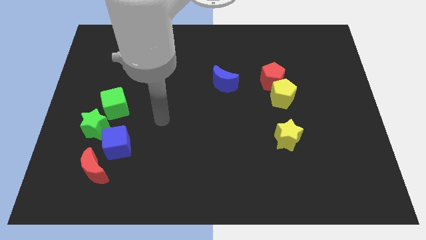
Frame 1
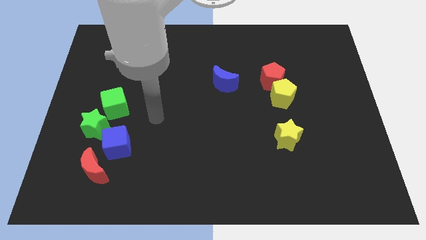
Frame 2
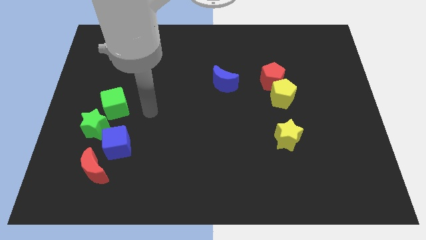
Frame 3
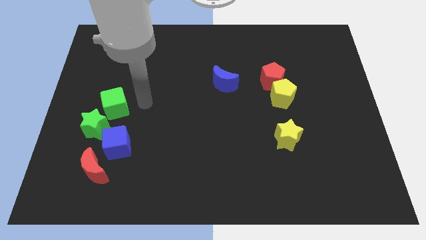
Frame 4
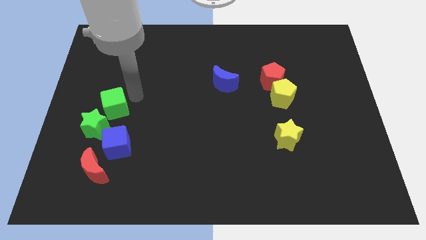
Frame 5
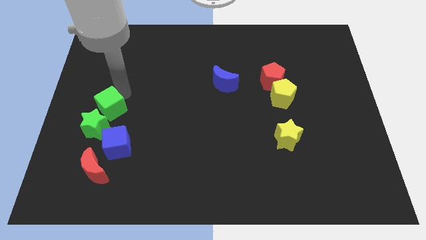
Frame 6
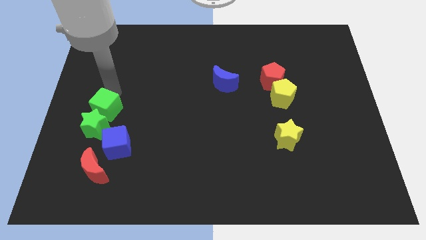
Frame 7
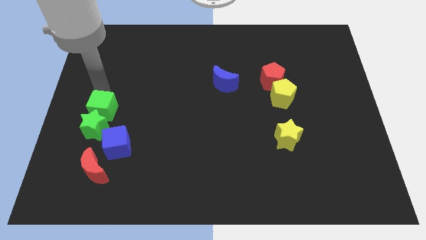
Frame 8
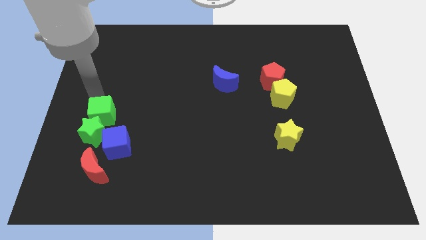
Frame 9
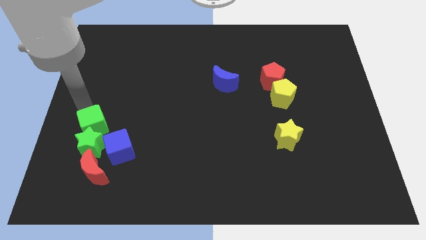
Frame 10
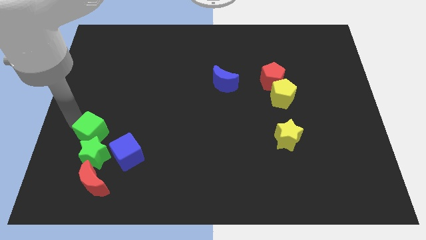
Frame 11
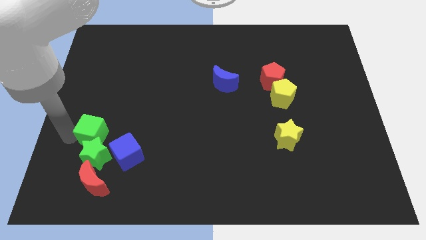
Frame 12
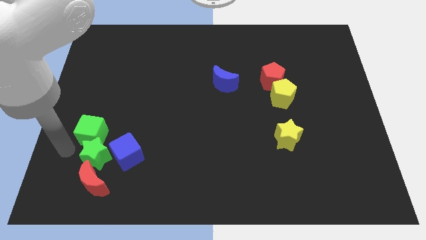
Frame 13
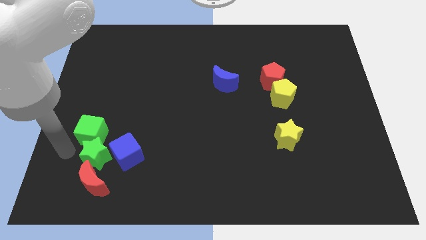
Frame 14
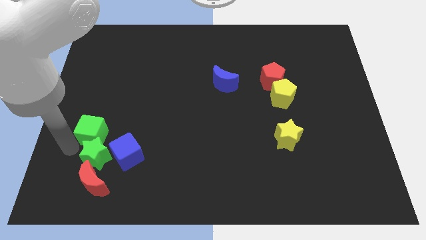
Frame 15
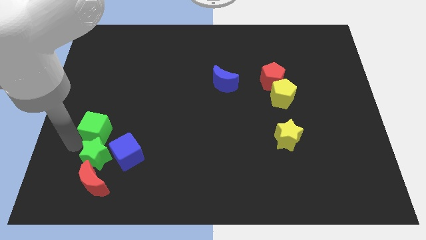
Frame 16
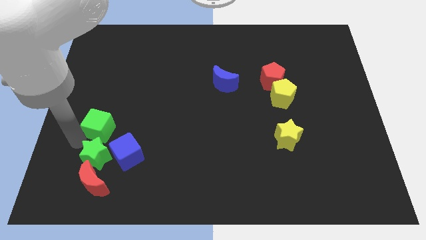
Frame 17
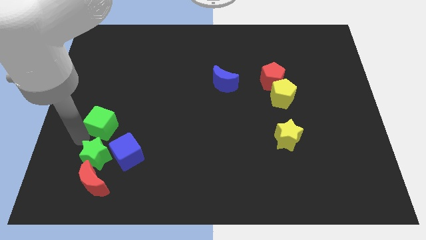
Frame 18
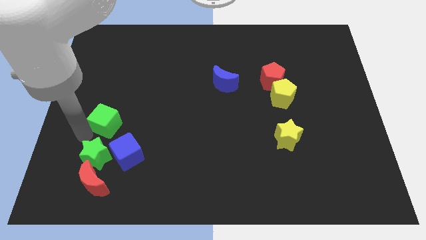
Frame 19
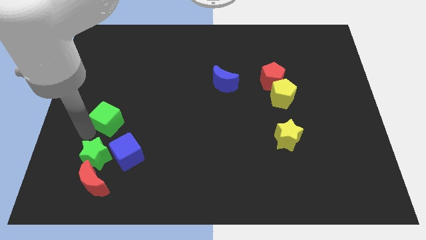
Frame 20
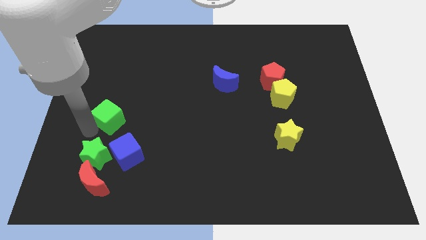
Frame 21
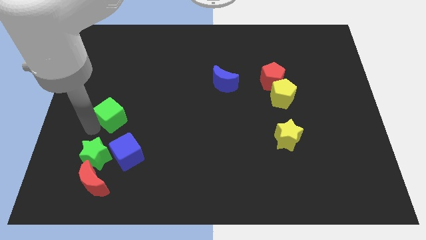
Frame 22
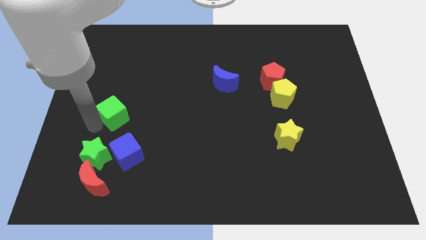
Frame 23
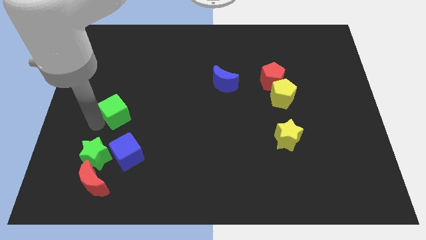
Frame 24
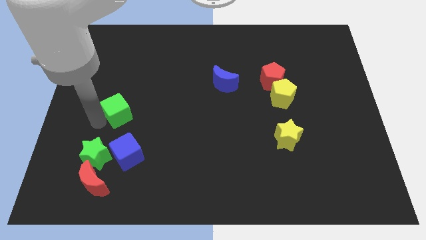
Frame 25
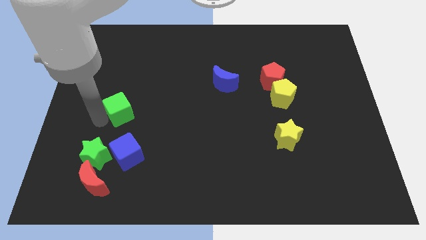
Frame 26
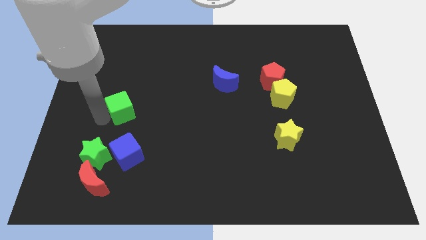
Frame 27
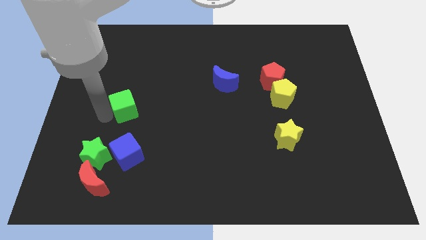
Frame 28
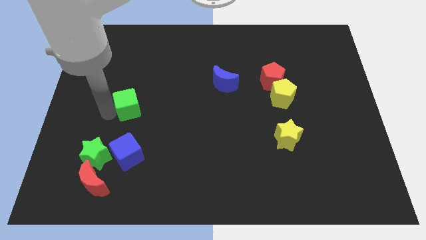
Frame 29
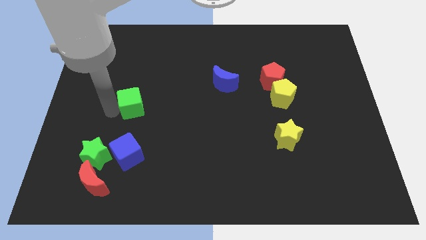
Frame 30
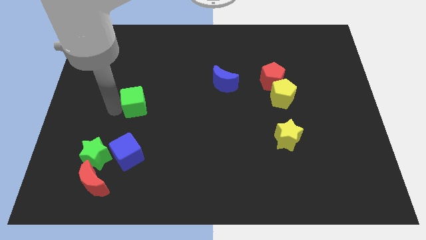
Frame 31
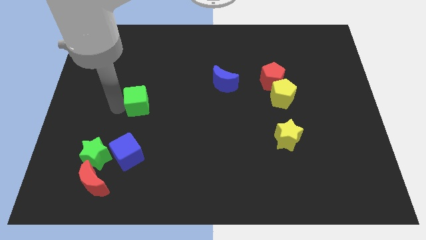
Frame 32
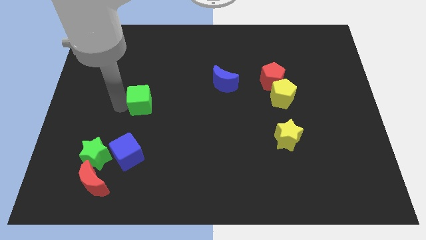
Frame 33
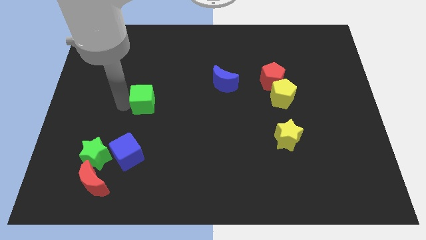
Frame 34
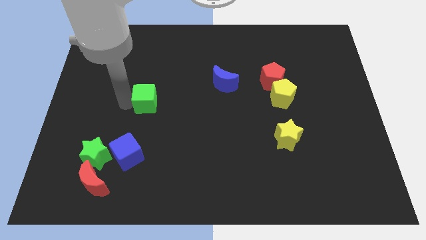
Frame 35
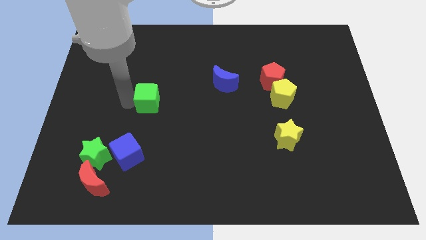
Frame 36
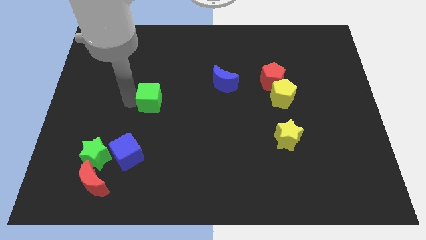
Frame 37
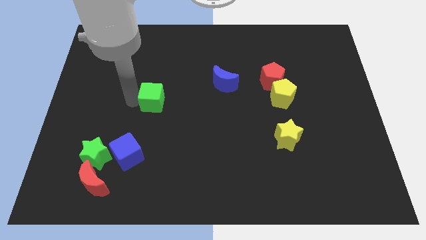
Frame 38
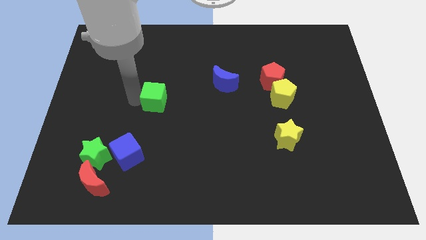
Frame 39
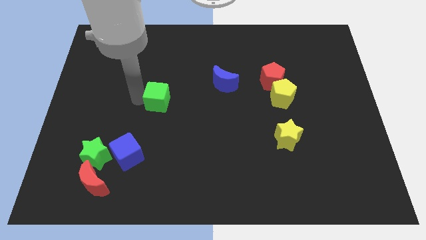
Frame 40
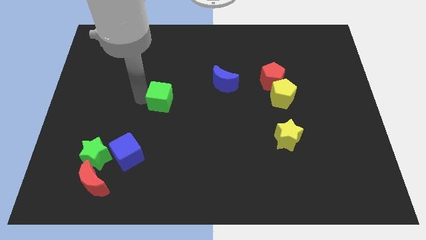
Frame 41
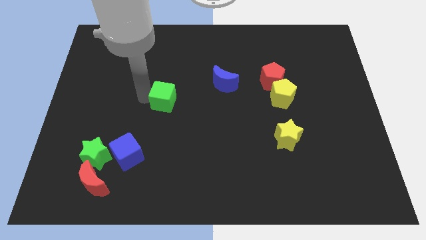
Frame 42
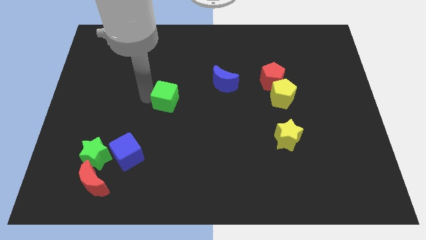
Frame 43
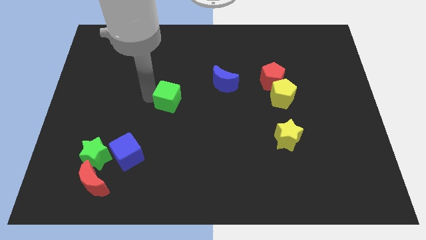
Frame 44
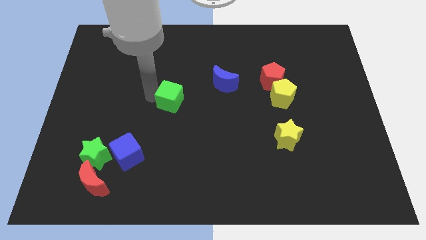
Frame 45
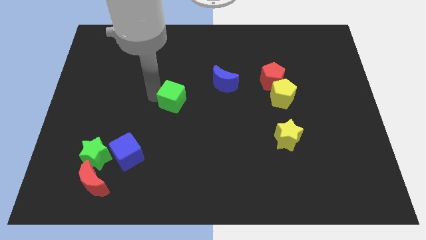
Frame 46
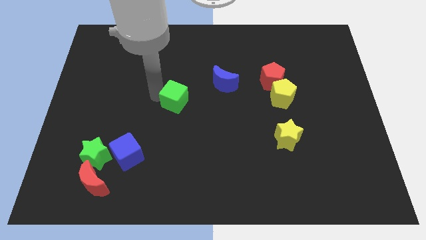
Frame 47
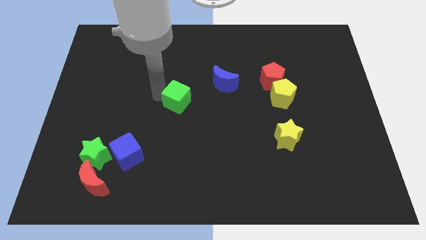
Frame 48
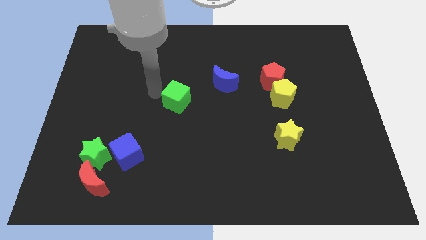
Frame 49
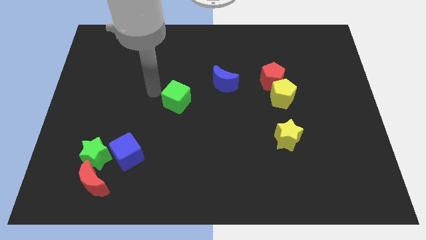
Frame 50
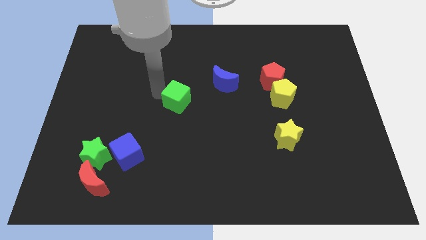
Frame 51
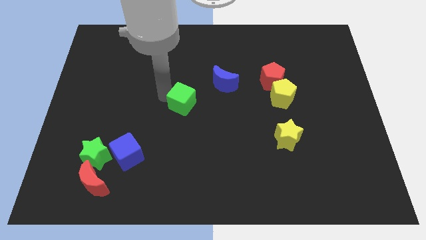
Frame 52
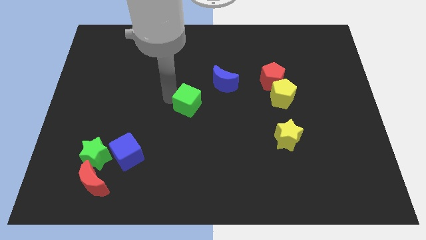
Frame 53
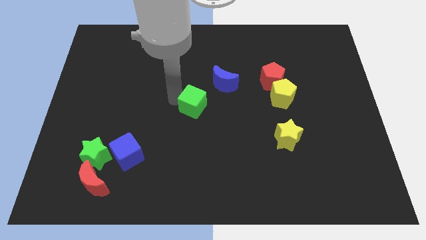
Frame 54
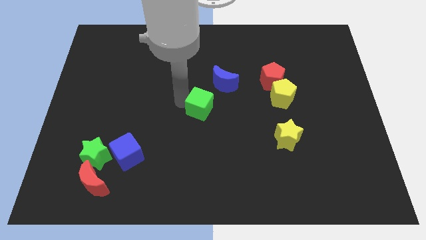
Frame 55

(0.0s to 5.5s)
push the green cube right

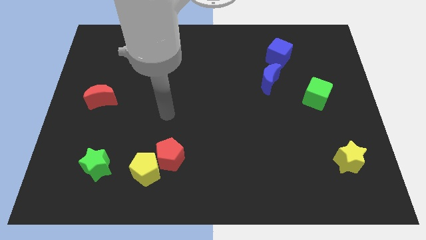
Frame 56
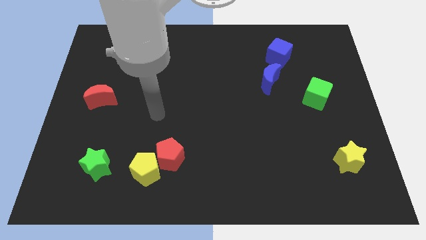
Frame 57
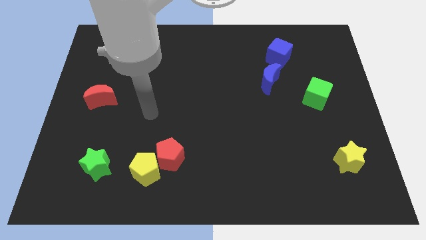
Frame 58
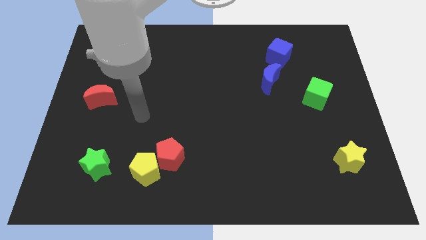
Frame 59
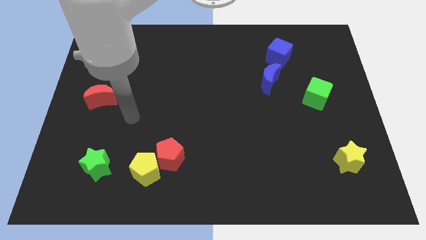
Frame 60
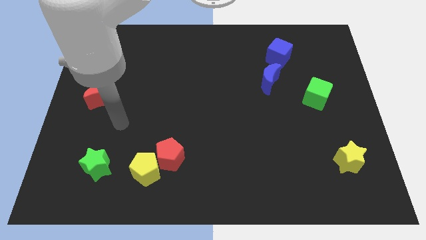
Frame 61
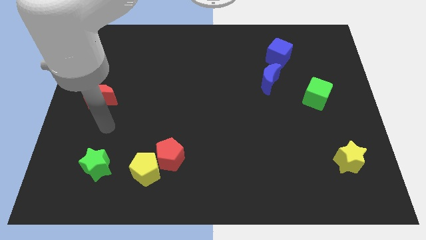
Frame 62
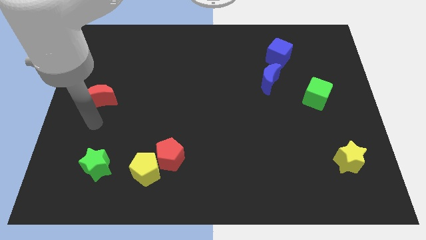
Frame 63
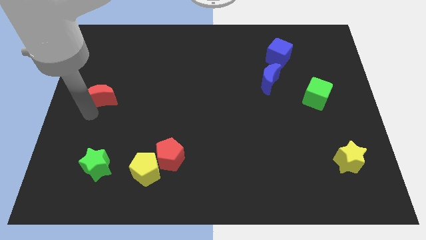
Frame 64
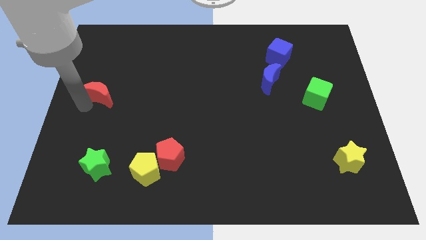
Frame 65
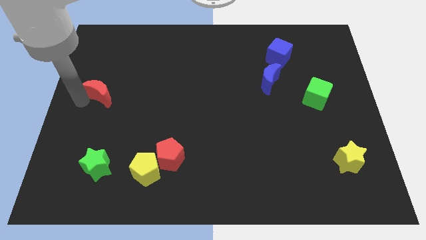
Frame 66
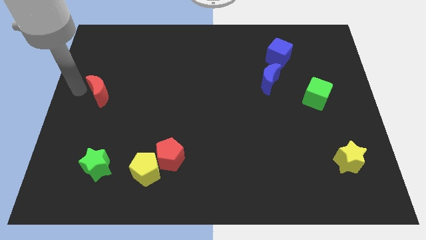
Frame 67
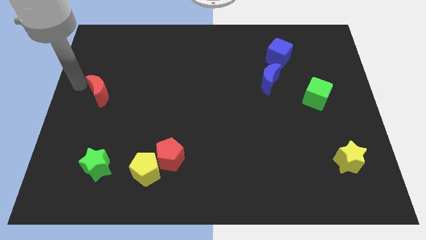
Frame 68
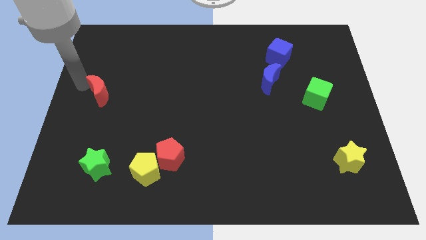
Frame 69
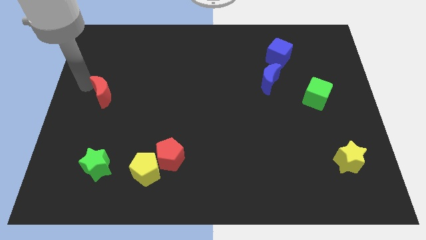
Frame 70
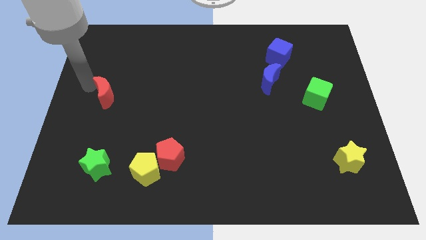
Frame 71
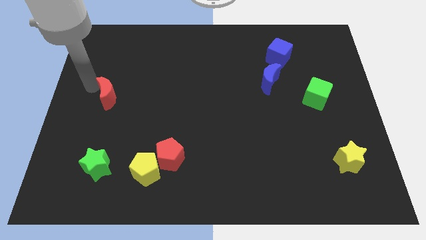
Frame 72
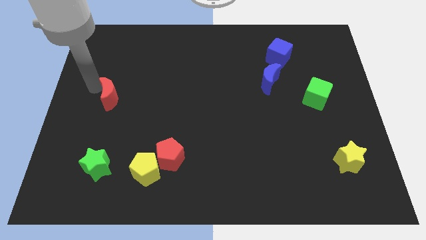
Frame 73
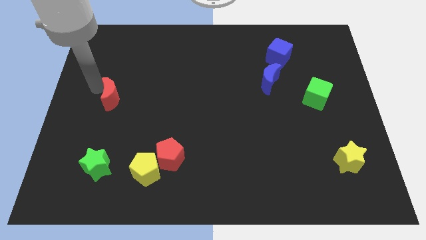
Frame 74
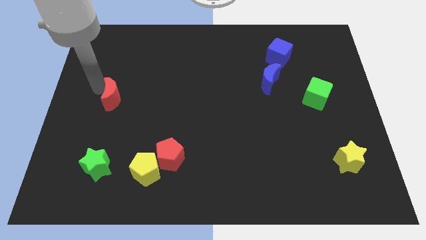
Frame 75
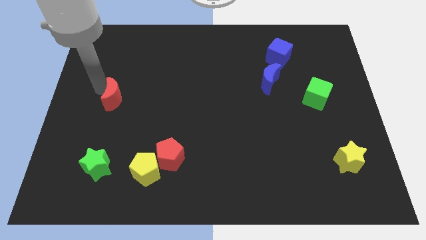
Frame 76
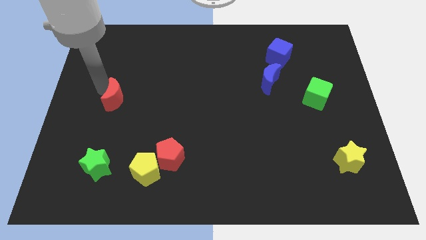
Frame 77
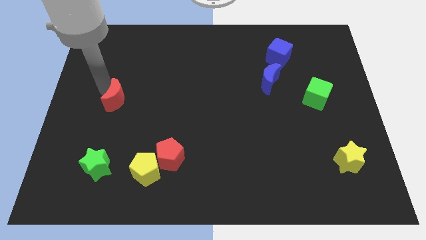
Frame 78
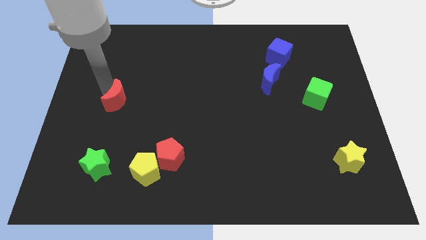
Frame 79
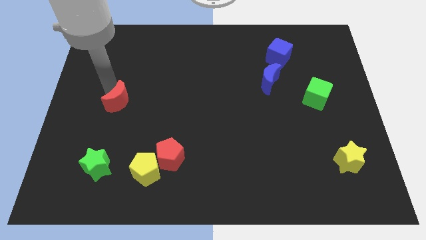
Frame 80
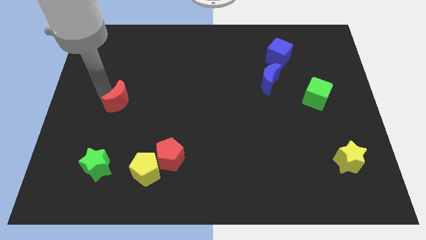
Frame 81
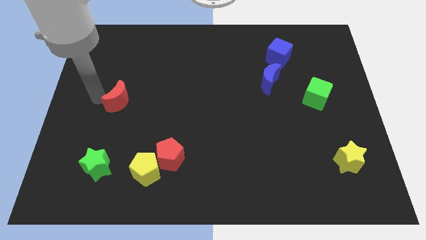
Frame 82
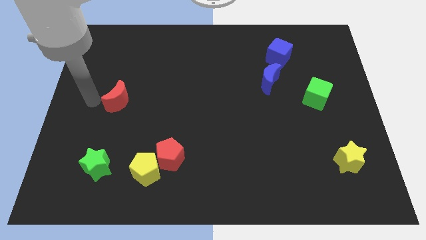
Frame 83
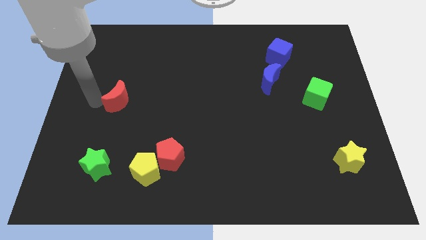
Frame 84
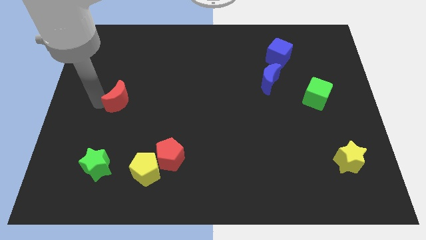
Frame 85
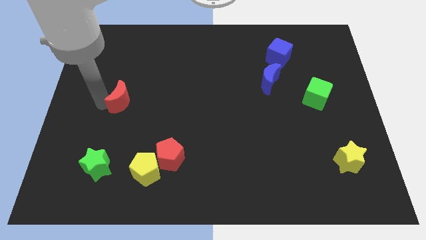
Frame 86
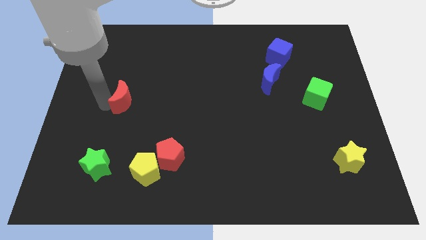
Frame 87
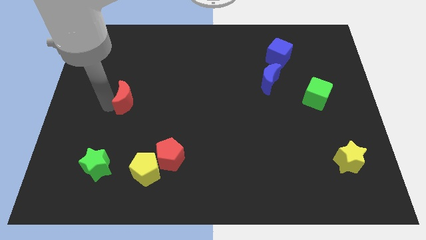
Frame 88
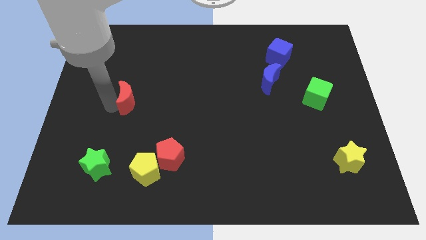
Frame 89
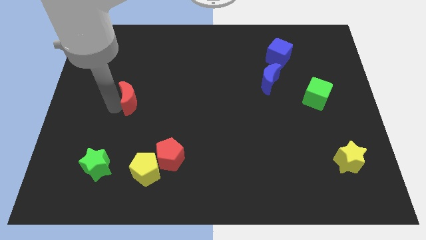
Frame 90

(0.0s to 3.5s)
slightly slide the red moon to the right
